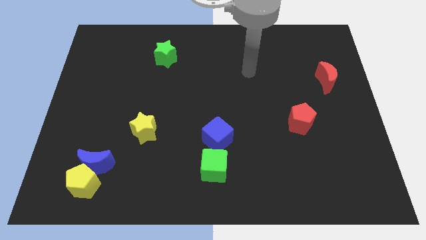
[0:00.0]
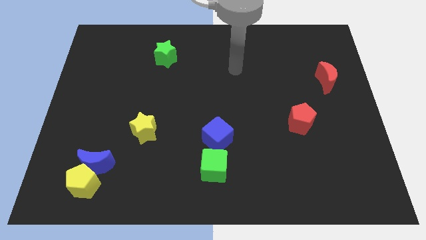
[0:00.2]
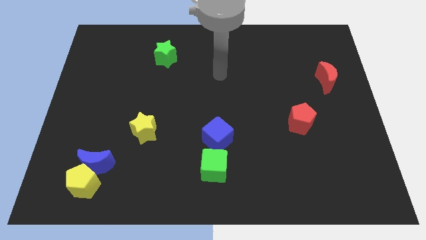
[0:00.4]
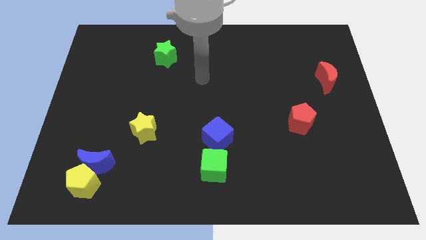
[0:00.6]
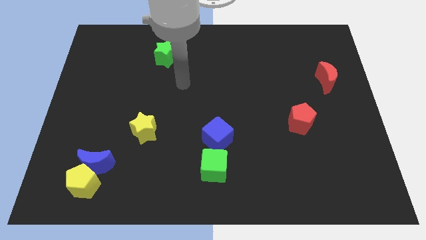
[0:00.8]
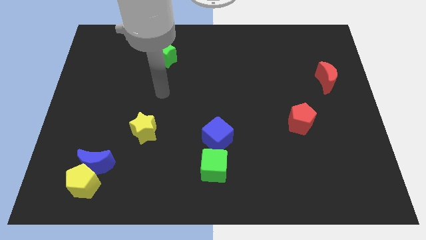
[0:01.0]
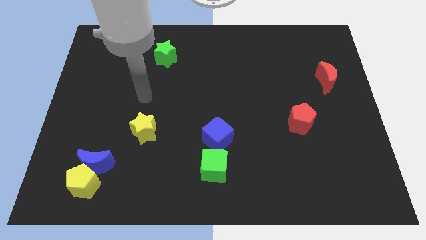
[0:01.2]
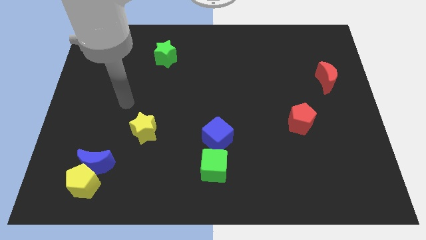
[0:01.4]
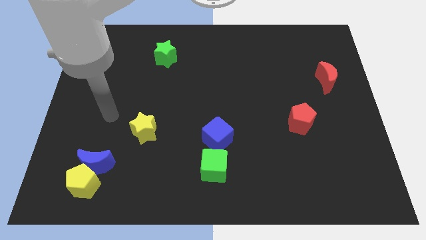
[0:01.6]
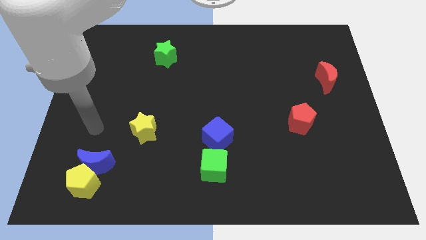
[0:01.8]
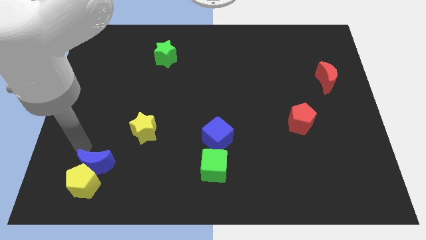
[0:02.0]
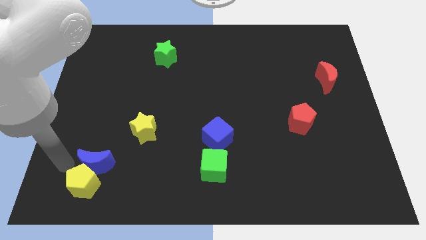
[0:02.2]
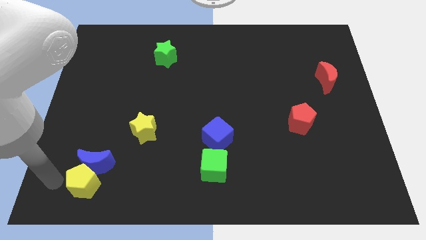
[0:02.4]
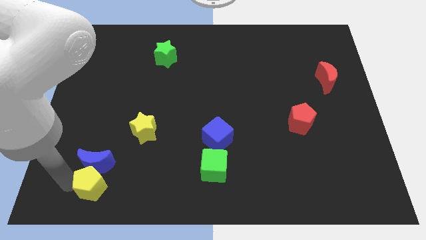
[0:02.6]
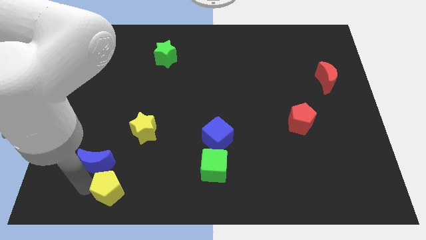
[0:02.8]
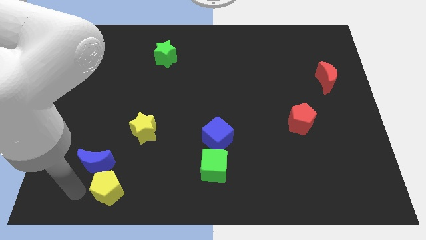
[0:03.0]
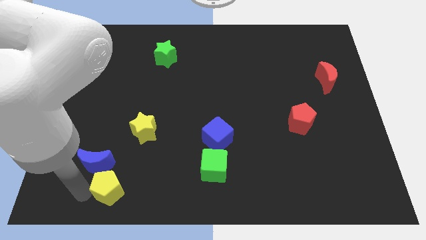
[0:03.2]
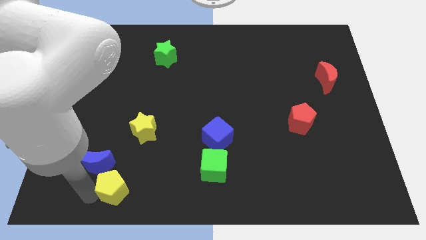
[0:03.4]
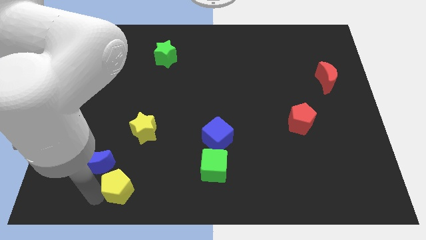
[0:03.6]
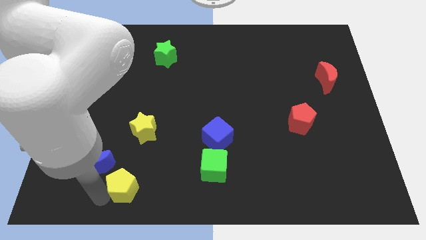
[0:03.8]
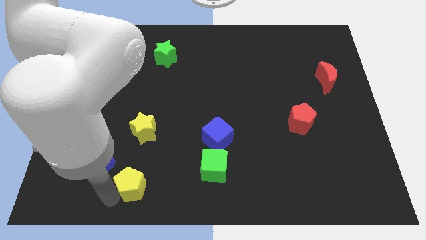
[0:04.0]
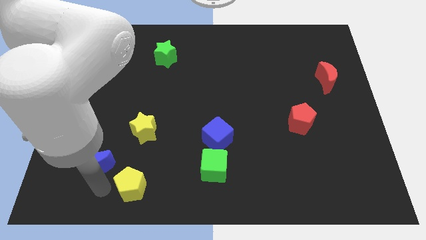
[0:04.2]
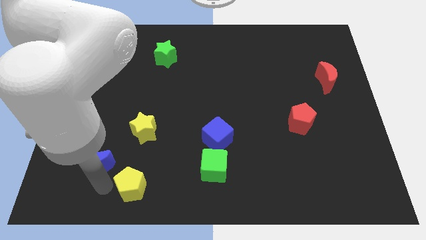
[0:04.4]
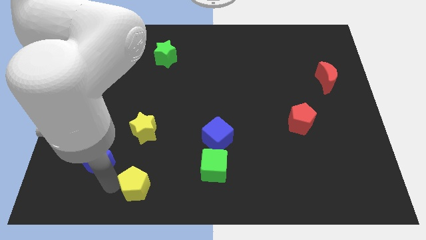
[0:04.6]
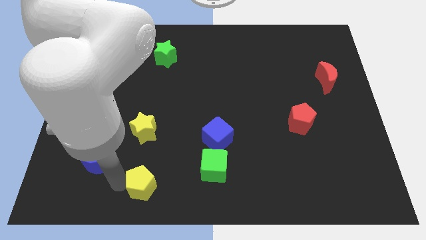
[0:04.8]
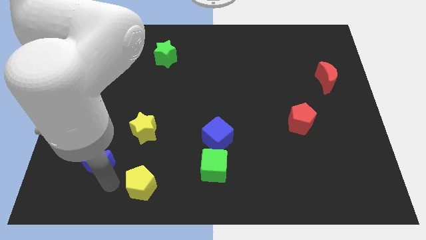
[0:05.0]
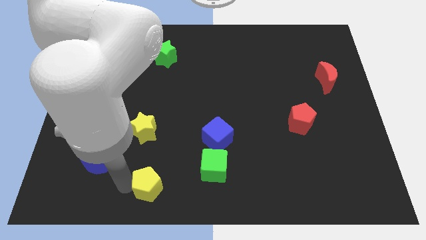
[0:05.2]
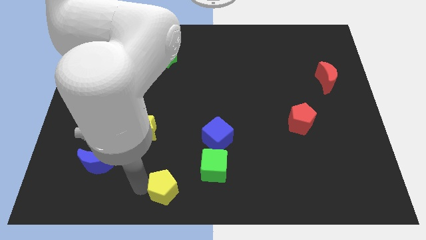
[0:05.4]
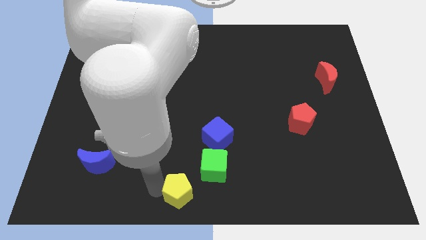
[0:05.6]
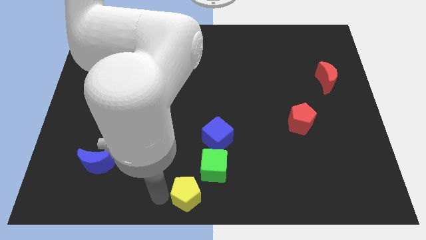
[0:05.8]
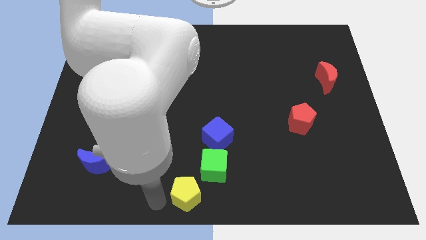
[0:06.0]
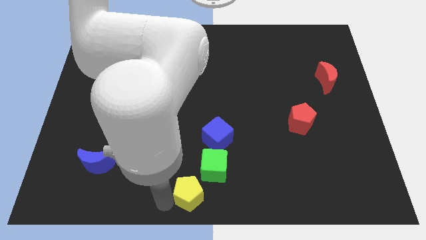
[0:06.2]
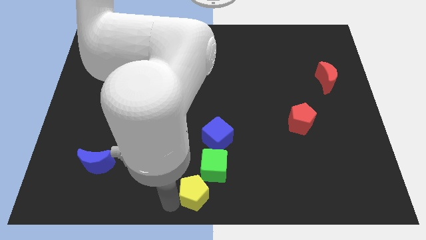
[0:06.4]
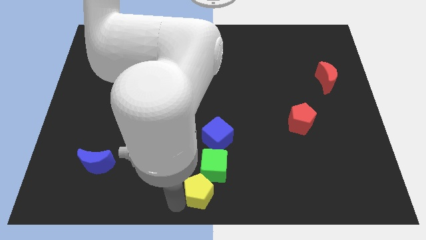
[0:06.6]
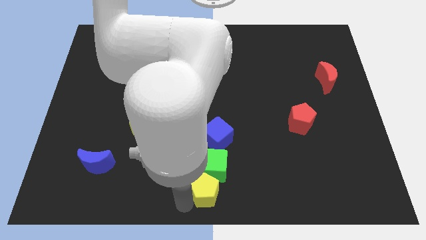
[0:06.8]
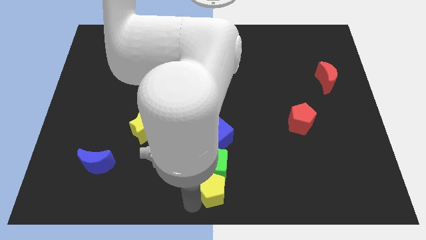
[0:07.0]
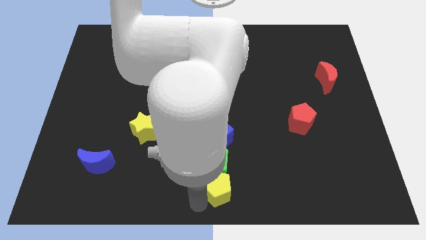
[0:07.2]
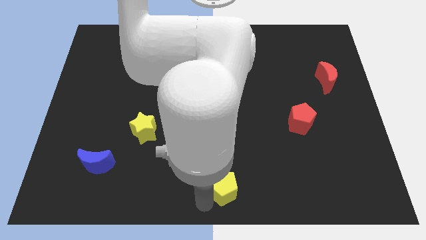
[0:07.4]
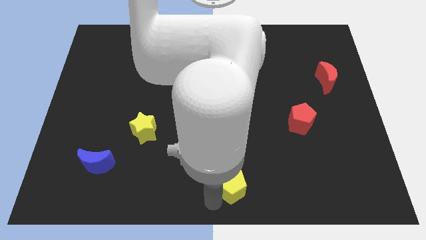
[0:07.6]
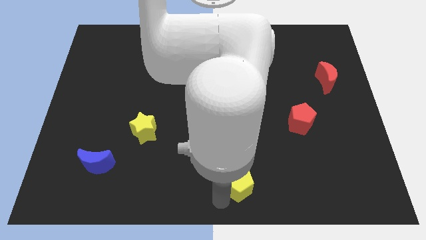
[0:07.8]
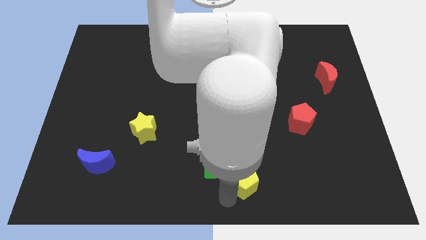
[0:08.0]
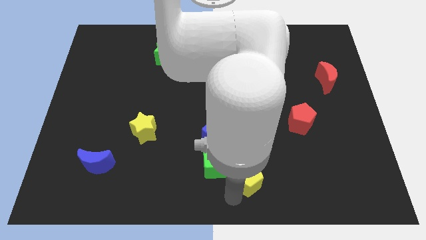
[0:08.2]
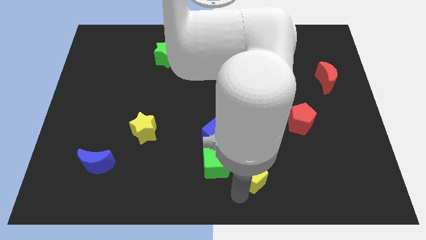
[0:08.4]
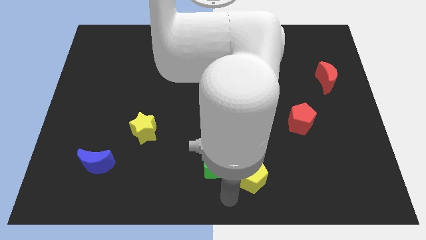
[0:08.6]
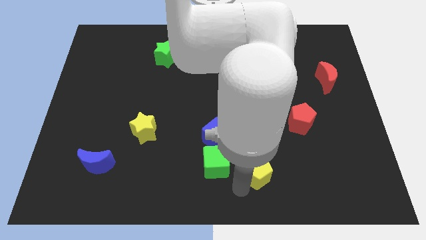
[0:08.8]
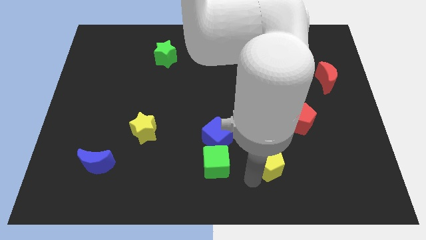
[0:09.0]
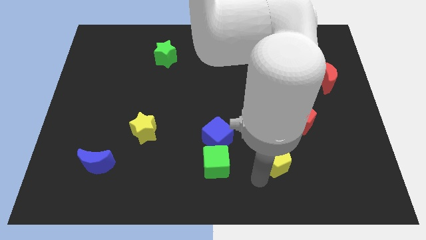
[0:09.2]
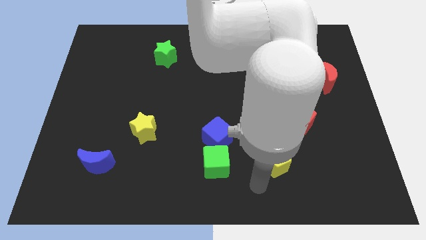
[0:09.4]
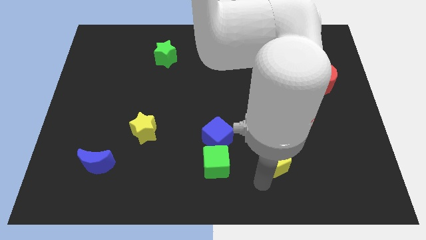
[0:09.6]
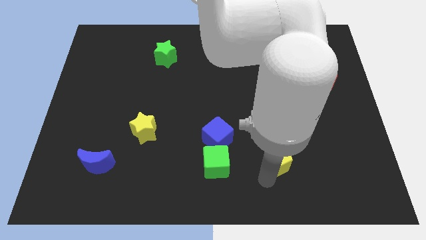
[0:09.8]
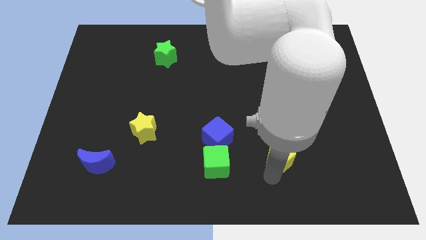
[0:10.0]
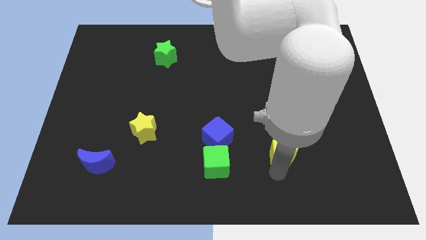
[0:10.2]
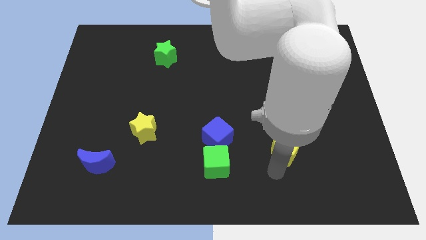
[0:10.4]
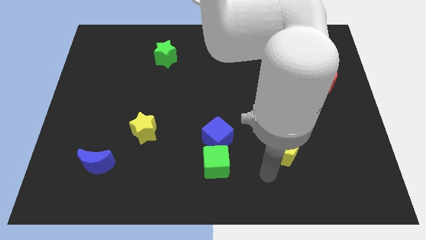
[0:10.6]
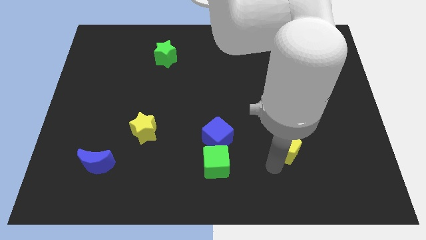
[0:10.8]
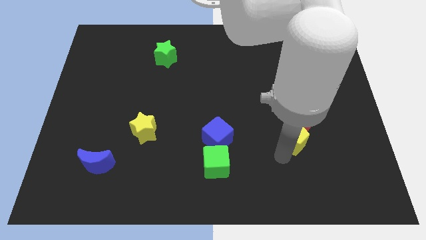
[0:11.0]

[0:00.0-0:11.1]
move the yellow pentagon to the red pentagon

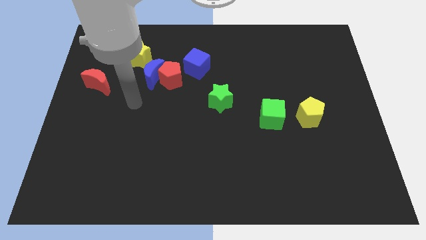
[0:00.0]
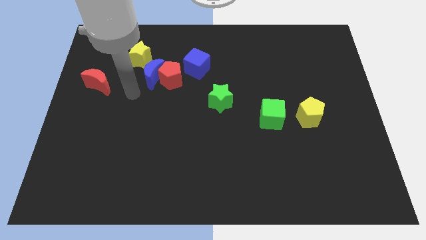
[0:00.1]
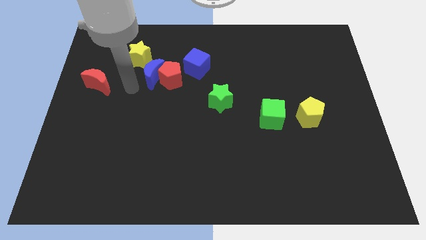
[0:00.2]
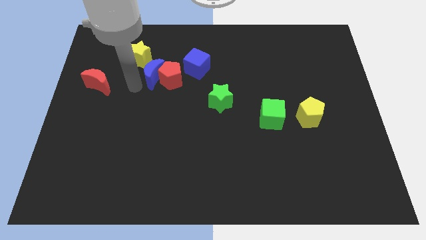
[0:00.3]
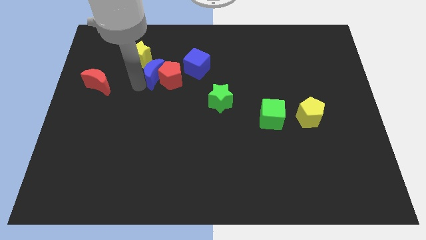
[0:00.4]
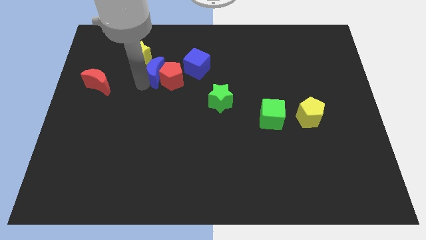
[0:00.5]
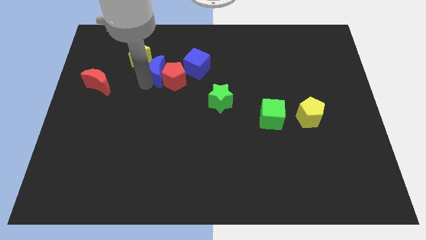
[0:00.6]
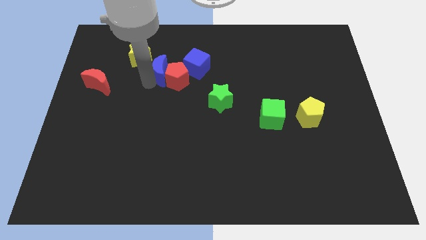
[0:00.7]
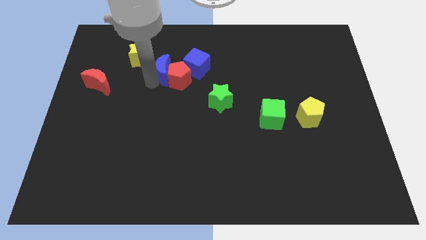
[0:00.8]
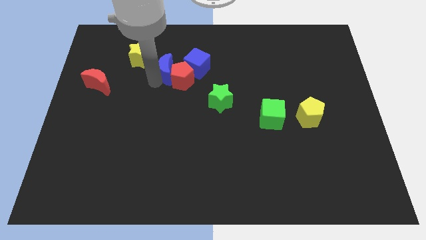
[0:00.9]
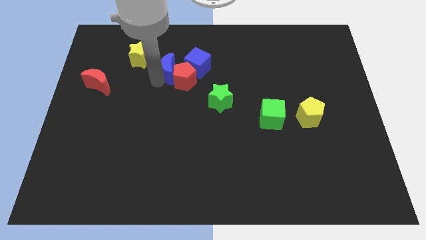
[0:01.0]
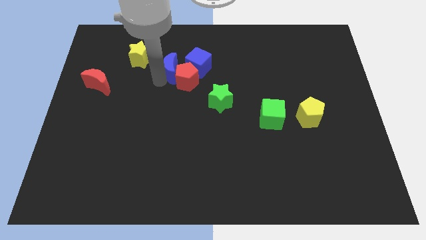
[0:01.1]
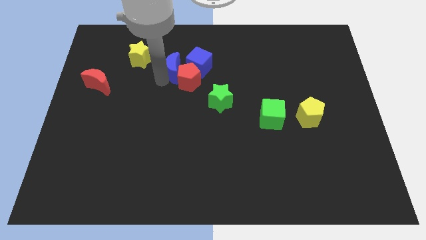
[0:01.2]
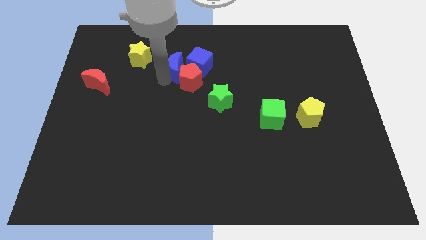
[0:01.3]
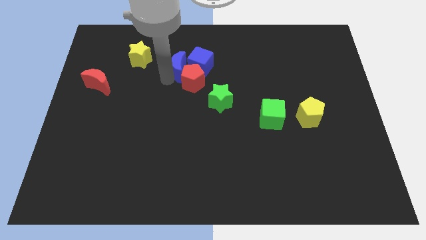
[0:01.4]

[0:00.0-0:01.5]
put the blue moon close to the blue cube
